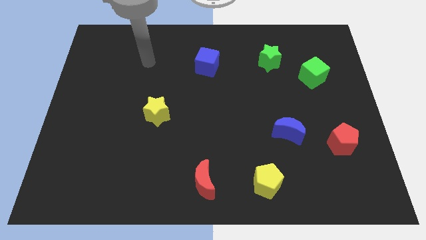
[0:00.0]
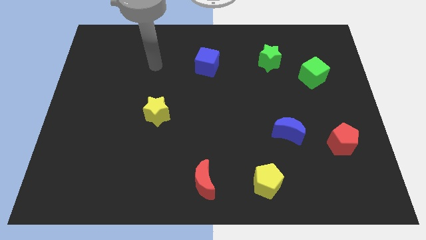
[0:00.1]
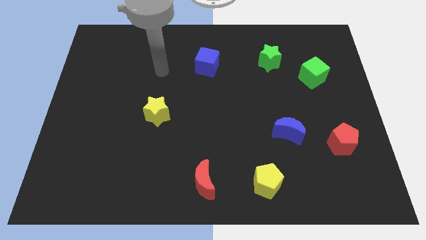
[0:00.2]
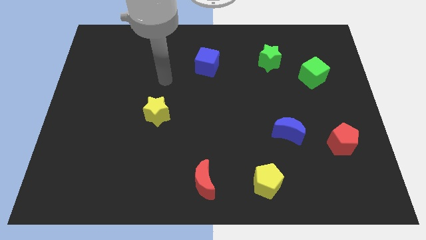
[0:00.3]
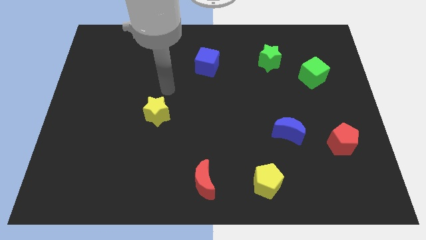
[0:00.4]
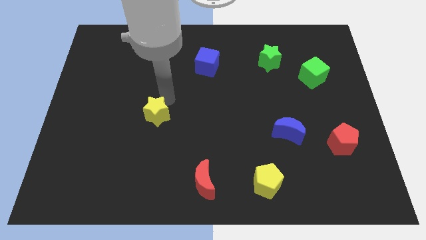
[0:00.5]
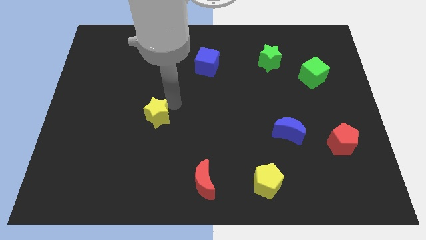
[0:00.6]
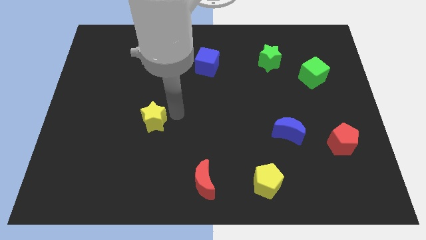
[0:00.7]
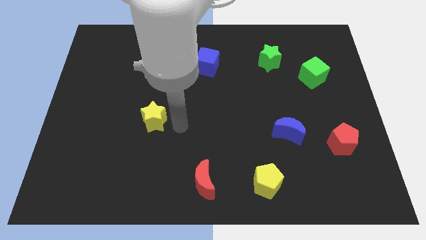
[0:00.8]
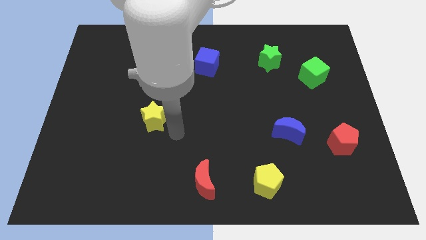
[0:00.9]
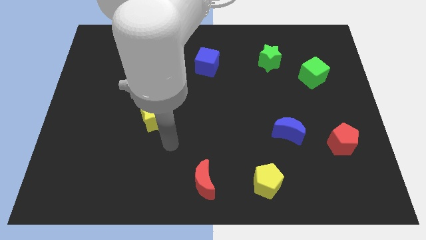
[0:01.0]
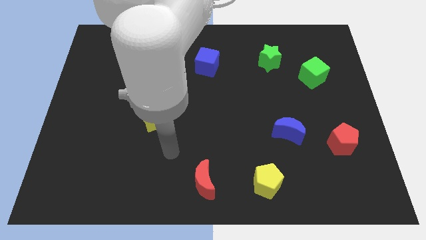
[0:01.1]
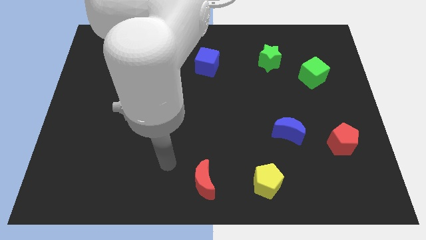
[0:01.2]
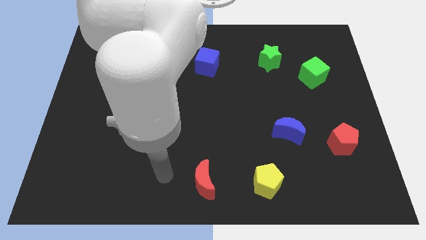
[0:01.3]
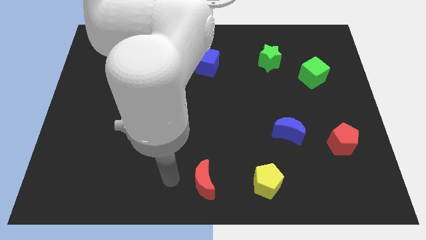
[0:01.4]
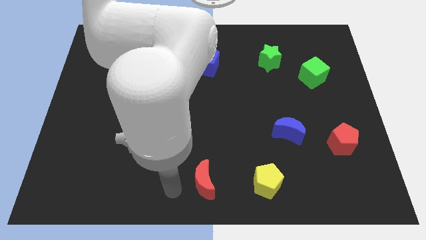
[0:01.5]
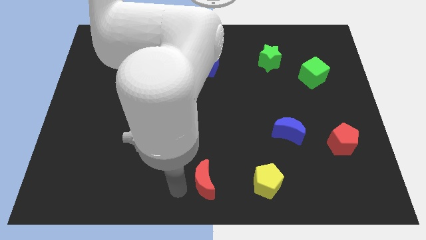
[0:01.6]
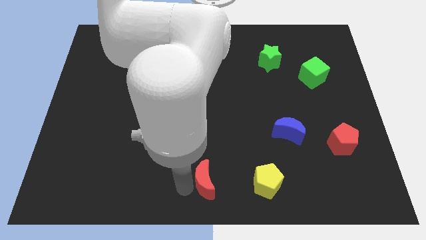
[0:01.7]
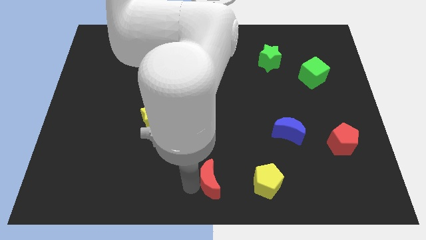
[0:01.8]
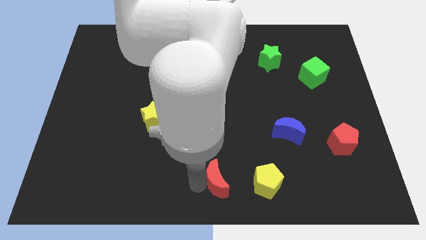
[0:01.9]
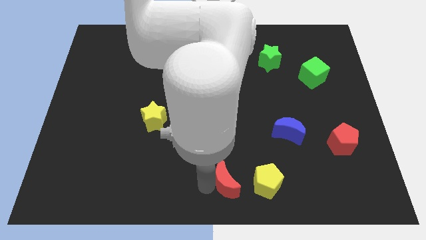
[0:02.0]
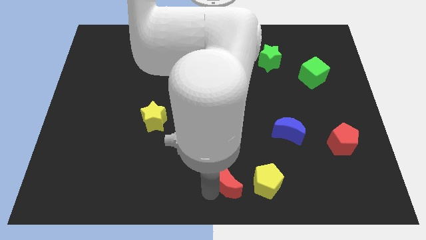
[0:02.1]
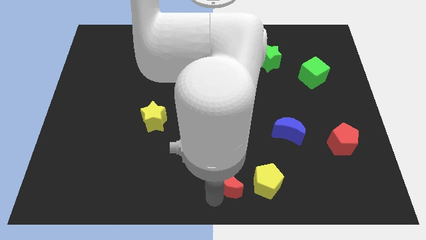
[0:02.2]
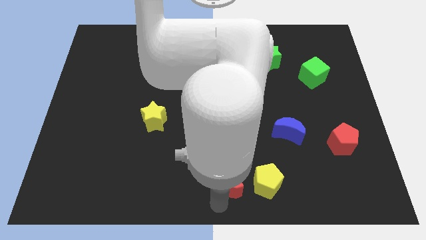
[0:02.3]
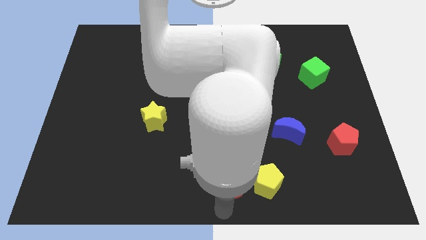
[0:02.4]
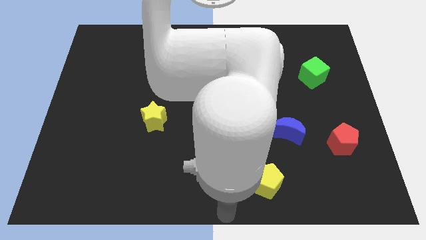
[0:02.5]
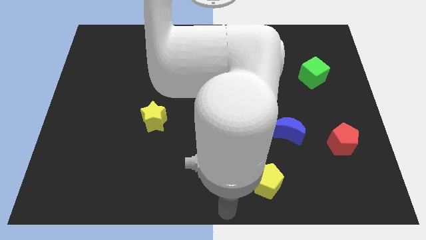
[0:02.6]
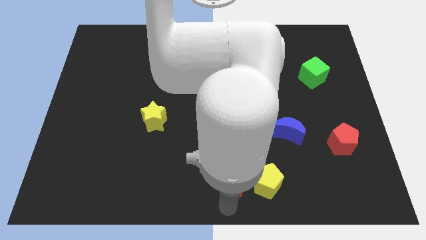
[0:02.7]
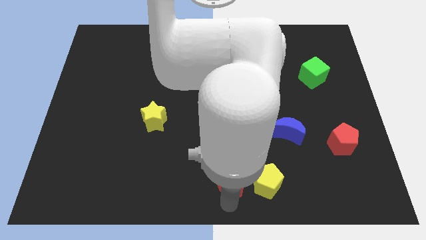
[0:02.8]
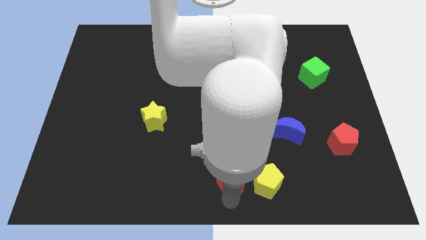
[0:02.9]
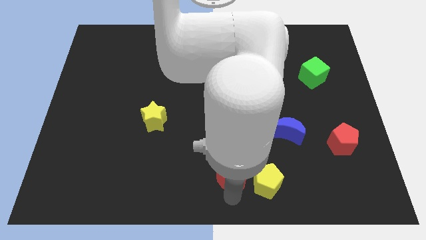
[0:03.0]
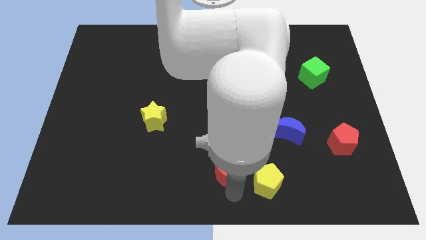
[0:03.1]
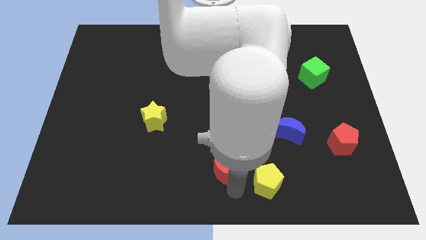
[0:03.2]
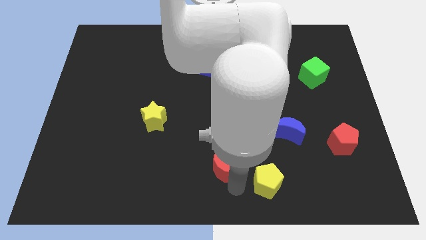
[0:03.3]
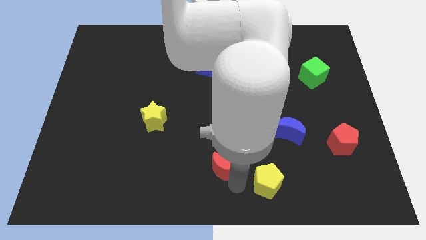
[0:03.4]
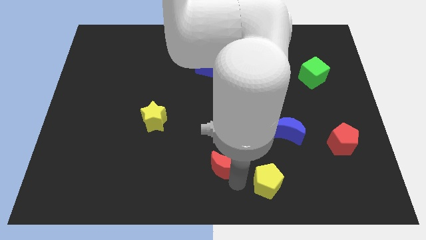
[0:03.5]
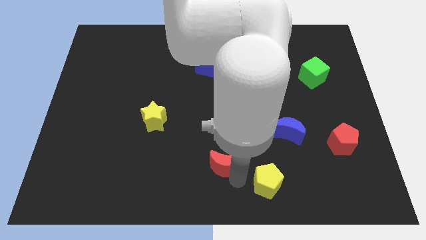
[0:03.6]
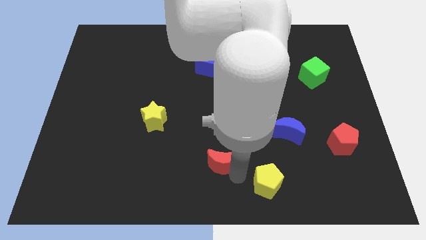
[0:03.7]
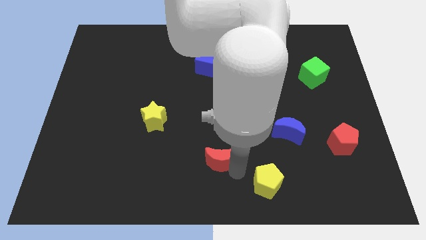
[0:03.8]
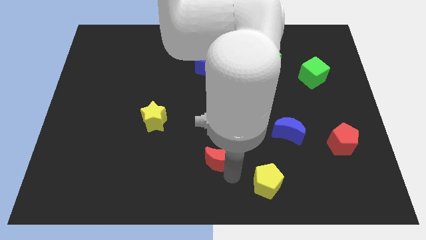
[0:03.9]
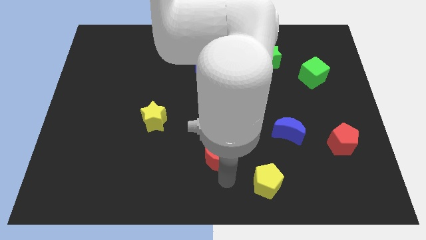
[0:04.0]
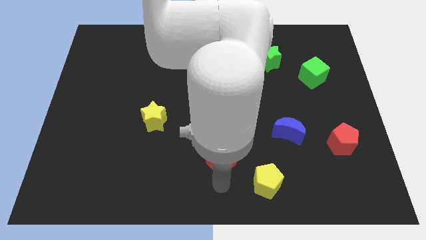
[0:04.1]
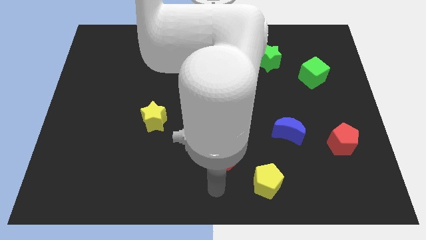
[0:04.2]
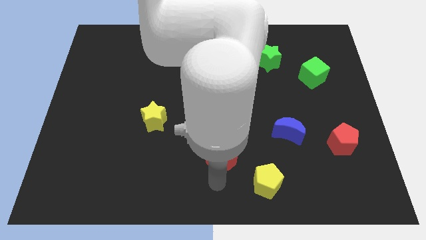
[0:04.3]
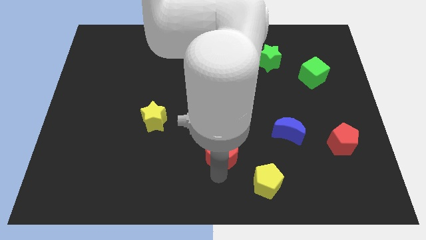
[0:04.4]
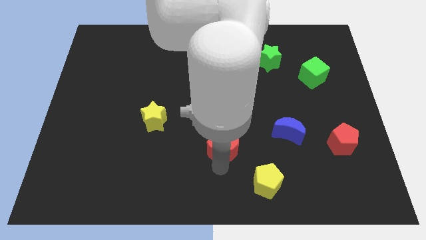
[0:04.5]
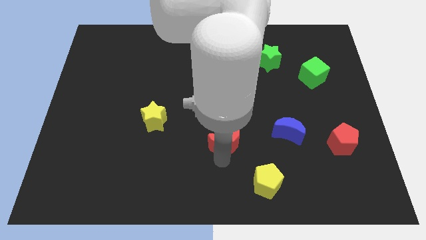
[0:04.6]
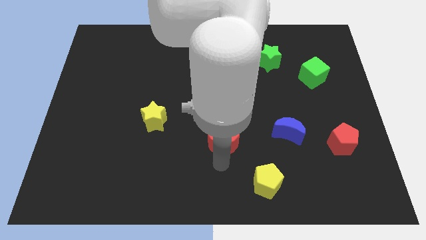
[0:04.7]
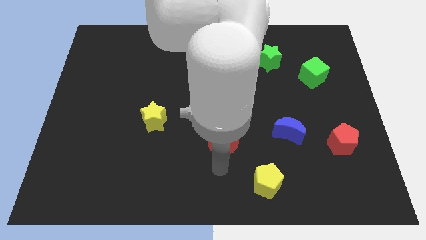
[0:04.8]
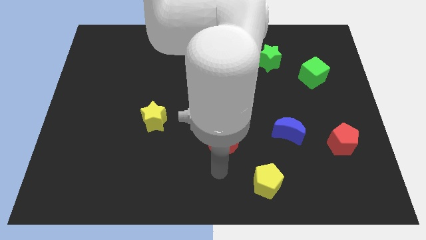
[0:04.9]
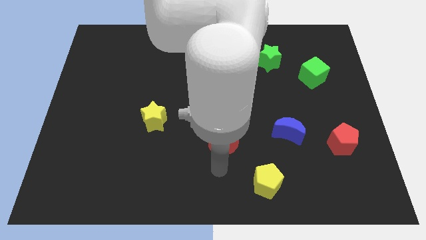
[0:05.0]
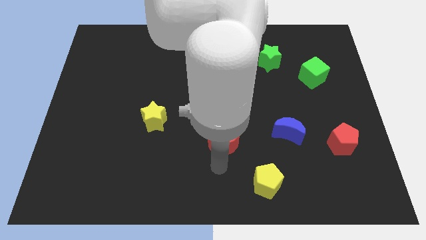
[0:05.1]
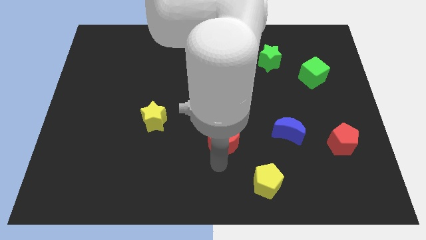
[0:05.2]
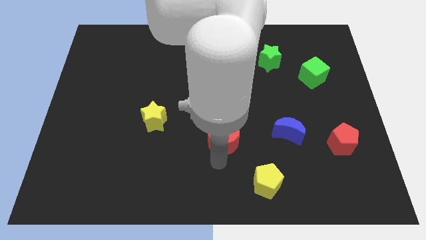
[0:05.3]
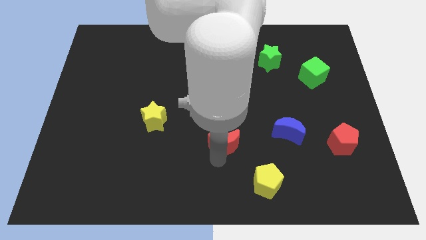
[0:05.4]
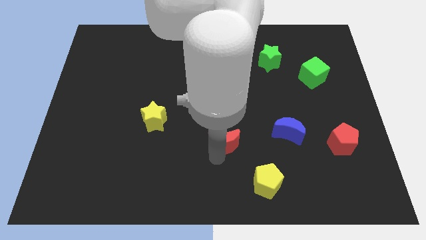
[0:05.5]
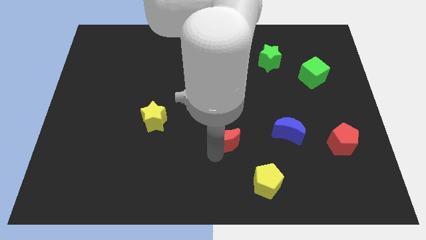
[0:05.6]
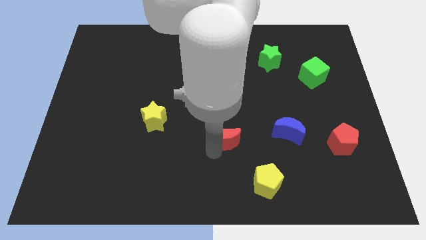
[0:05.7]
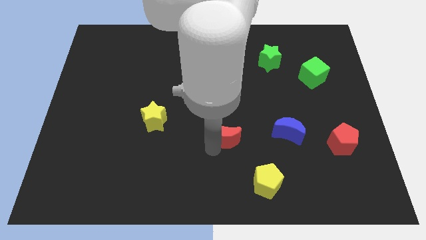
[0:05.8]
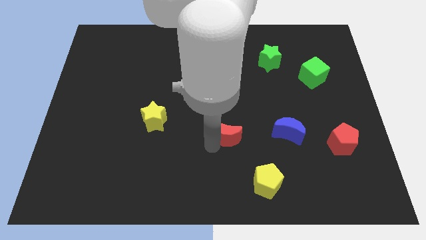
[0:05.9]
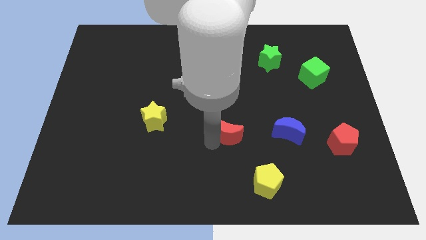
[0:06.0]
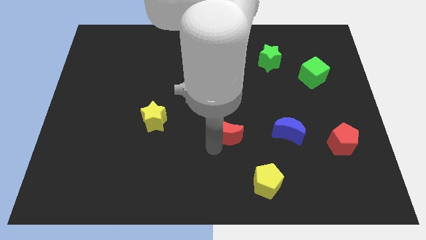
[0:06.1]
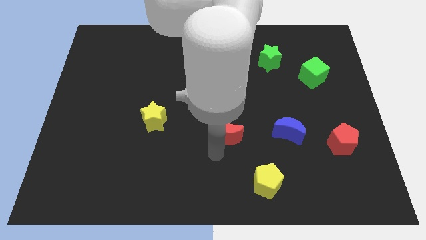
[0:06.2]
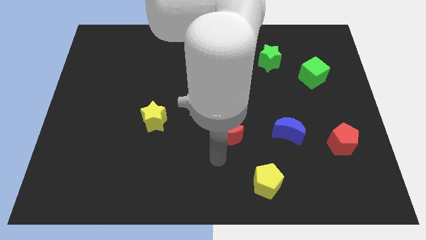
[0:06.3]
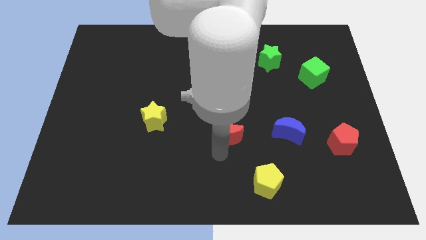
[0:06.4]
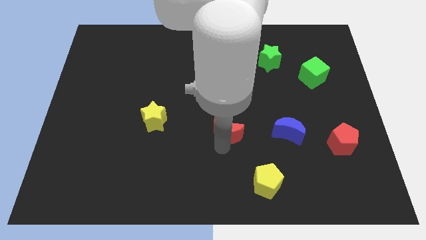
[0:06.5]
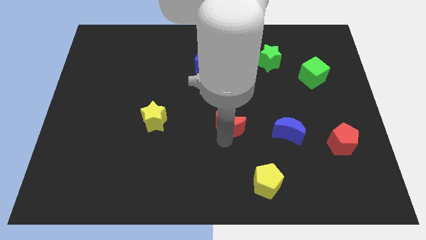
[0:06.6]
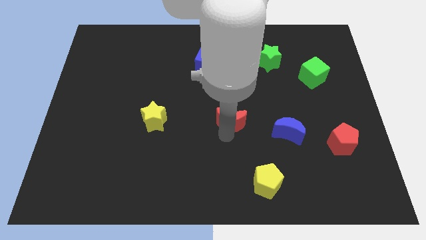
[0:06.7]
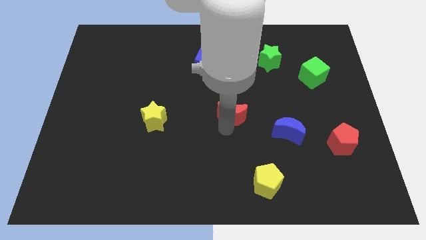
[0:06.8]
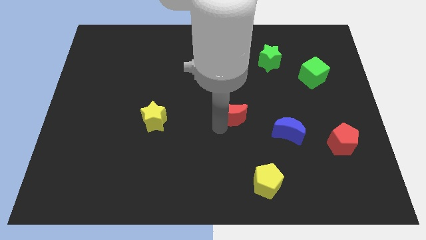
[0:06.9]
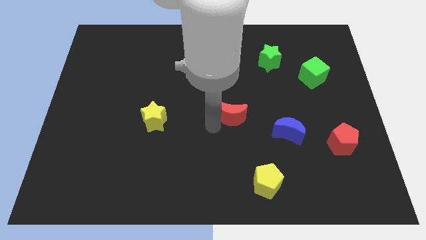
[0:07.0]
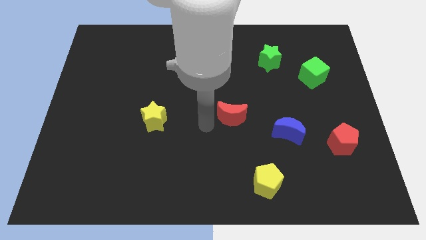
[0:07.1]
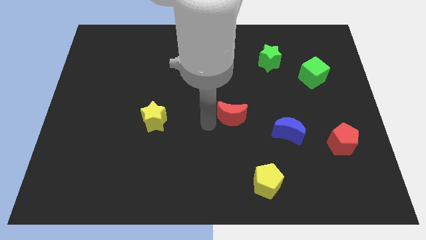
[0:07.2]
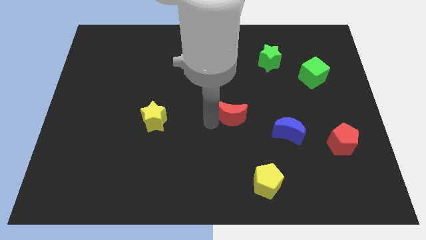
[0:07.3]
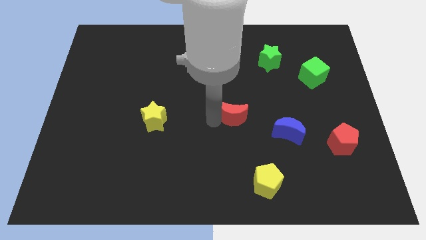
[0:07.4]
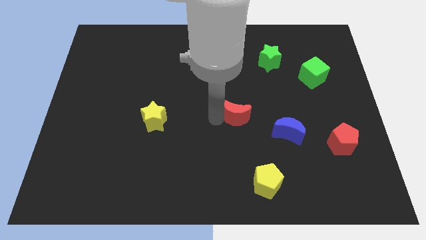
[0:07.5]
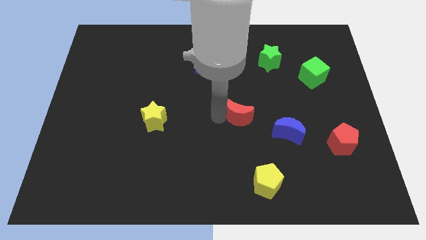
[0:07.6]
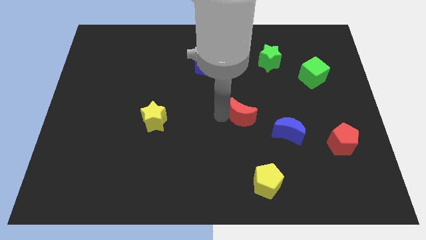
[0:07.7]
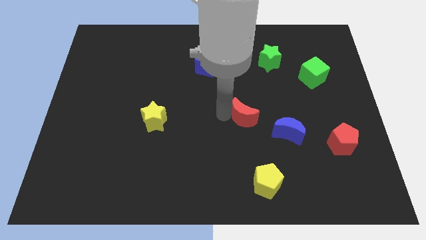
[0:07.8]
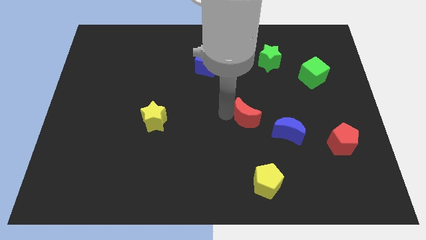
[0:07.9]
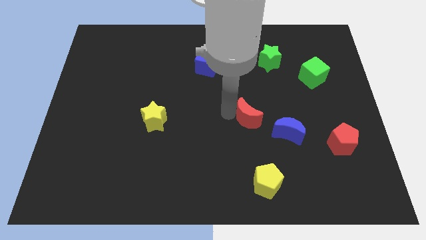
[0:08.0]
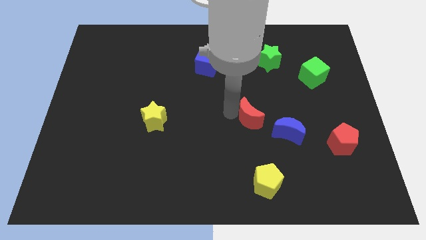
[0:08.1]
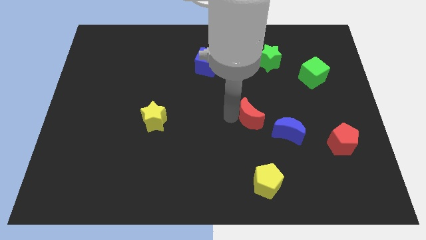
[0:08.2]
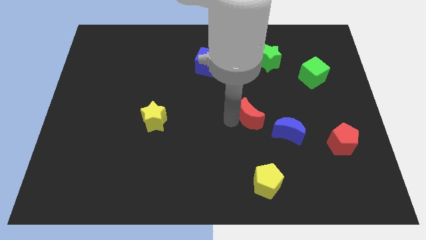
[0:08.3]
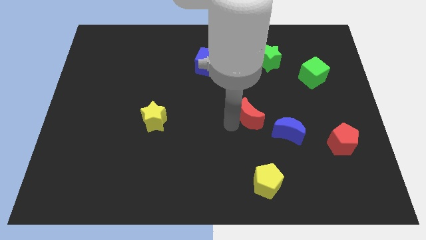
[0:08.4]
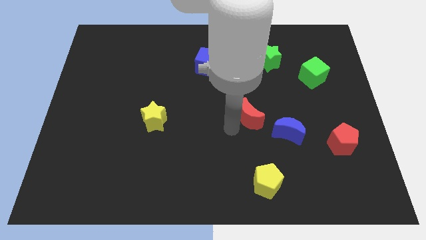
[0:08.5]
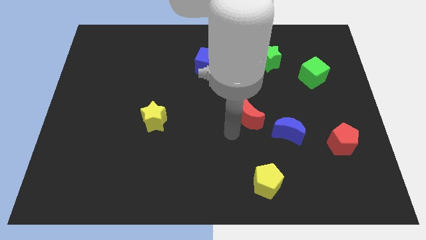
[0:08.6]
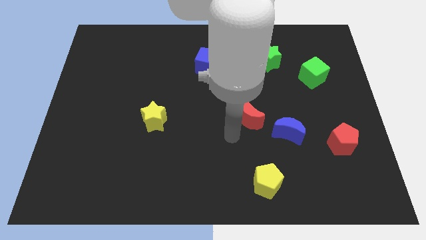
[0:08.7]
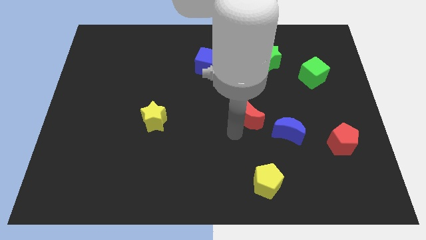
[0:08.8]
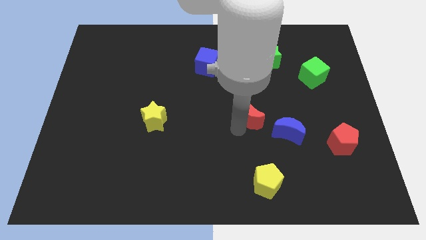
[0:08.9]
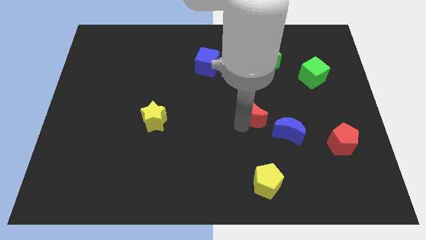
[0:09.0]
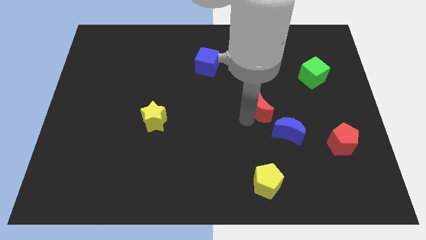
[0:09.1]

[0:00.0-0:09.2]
move the red moon up and right diagonally
